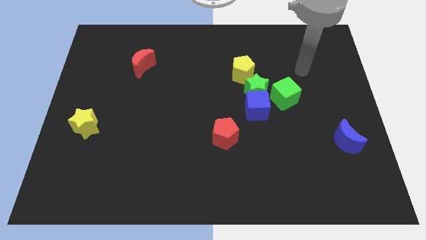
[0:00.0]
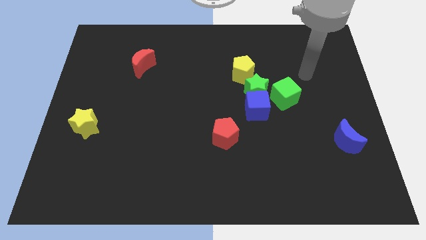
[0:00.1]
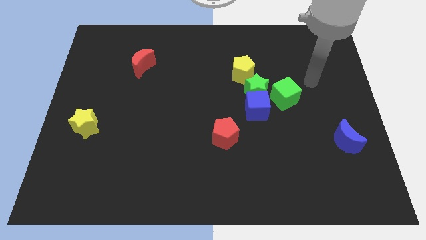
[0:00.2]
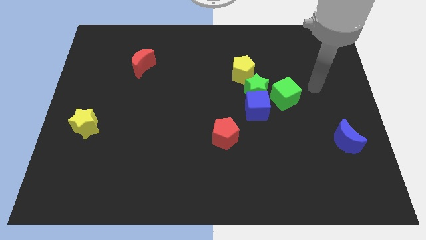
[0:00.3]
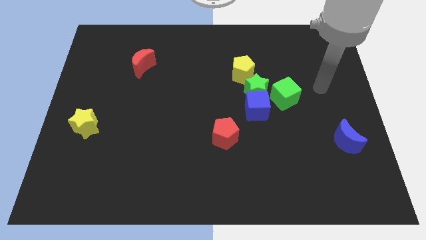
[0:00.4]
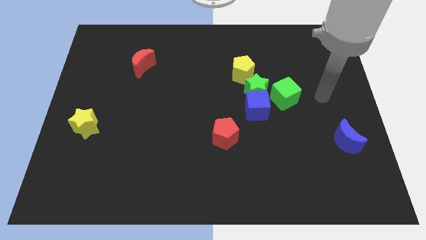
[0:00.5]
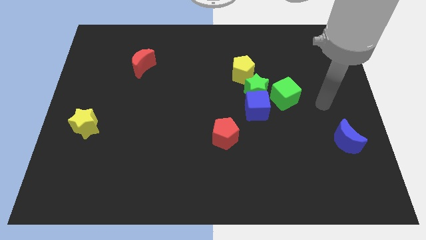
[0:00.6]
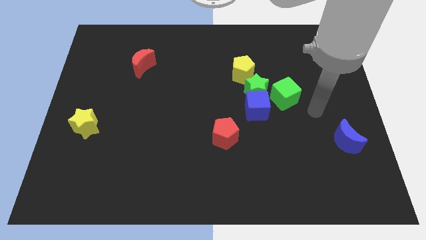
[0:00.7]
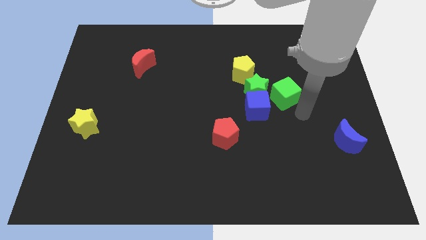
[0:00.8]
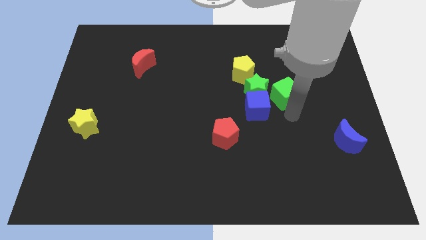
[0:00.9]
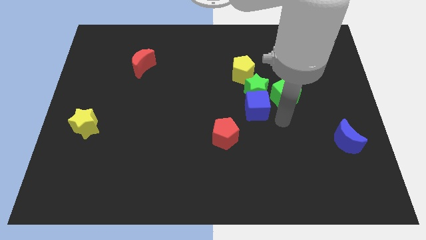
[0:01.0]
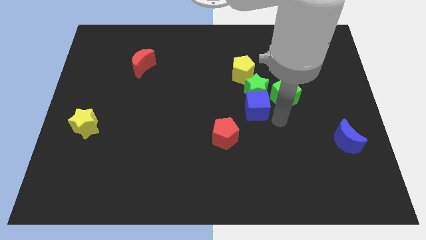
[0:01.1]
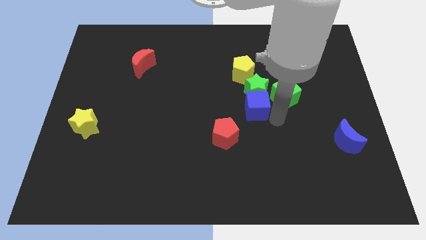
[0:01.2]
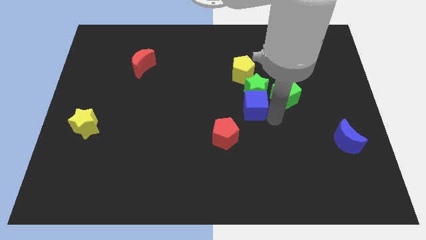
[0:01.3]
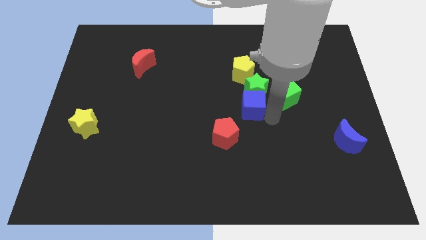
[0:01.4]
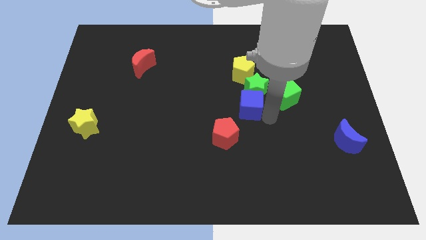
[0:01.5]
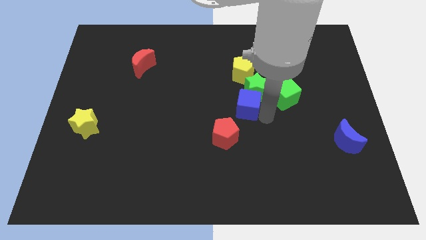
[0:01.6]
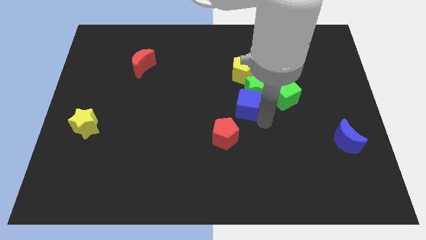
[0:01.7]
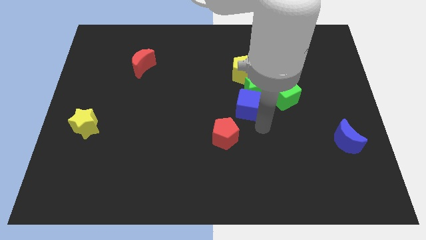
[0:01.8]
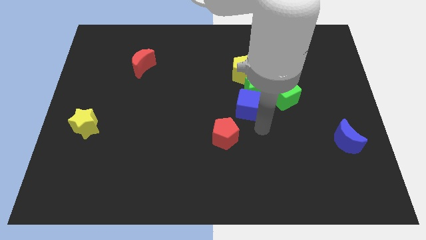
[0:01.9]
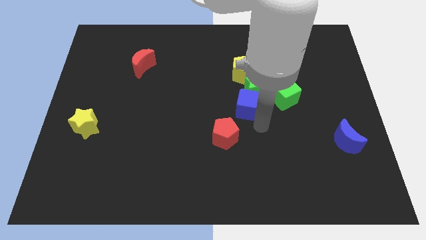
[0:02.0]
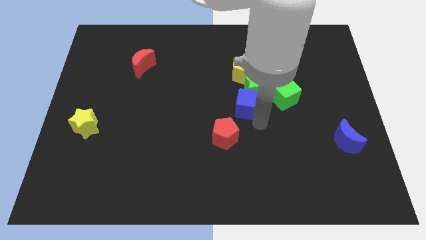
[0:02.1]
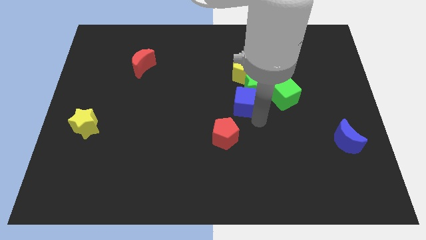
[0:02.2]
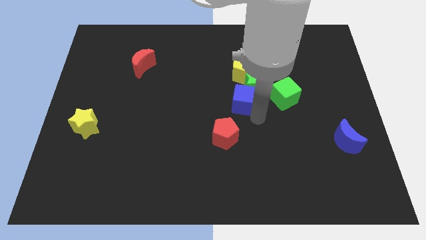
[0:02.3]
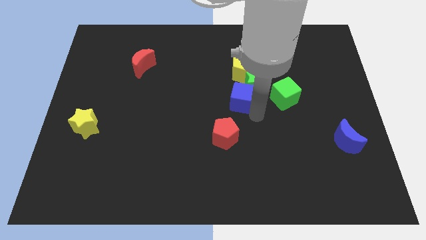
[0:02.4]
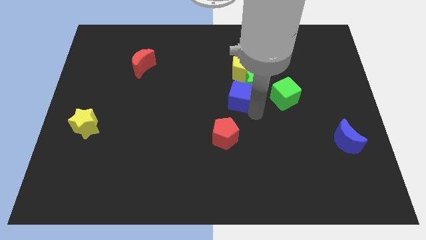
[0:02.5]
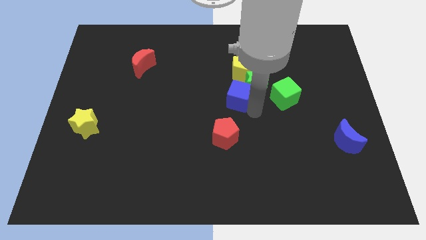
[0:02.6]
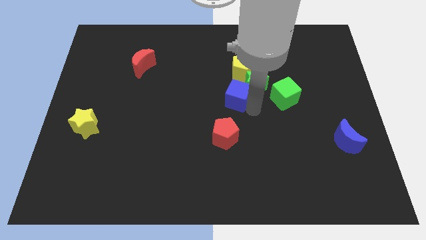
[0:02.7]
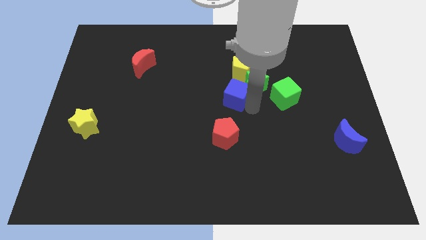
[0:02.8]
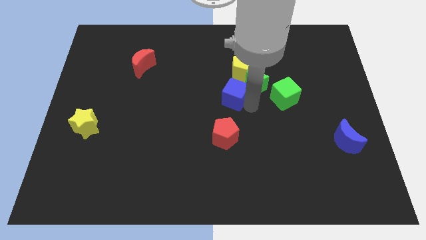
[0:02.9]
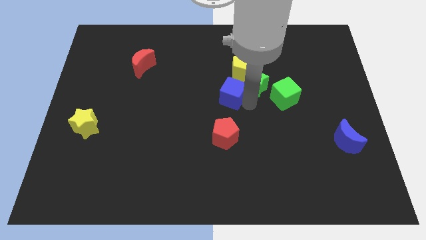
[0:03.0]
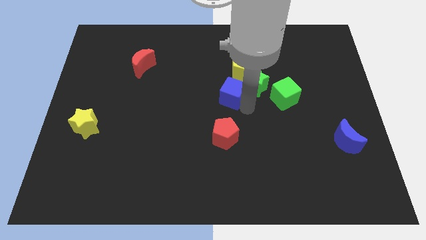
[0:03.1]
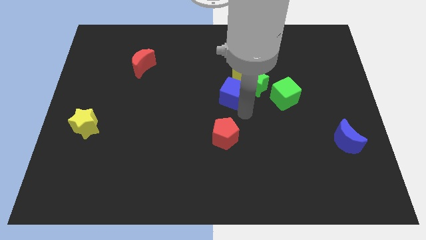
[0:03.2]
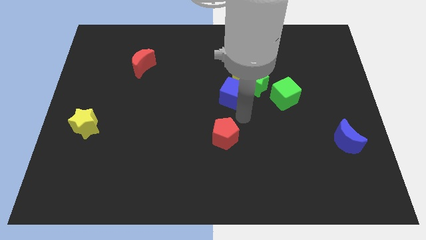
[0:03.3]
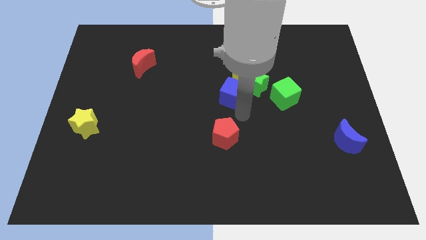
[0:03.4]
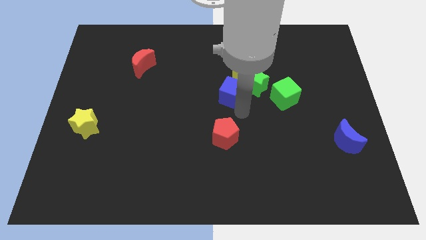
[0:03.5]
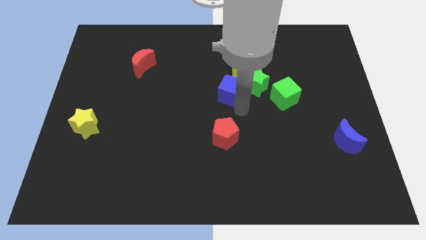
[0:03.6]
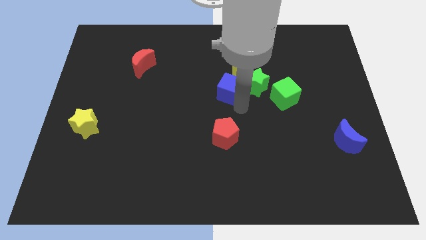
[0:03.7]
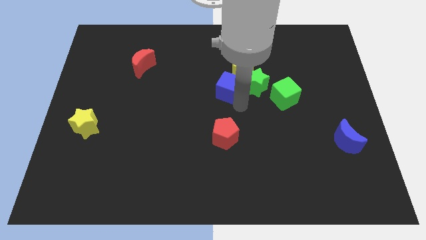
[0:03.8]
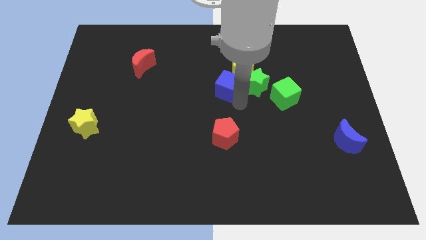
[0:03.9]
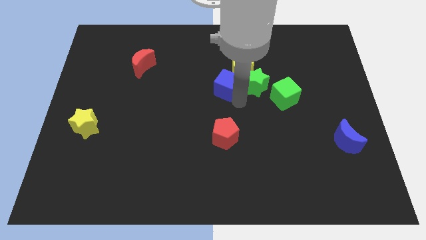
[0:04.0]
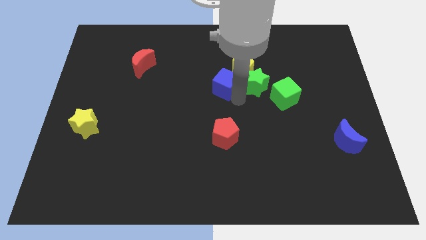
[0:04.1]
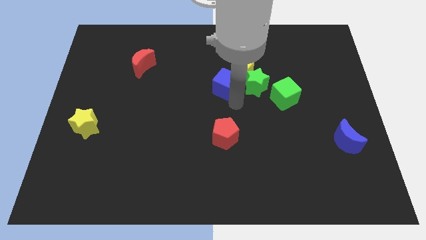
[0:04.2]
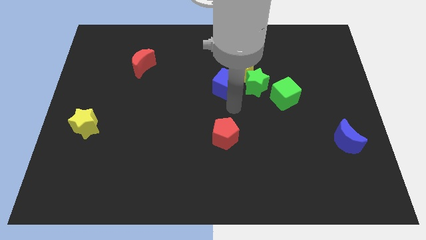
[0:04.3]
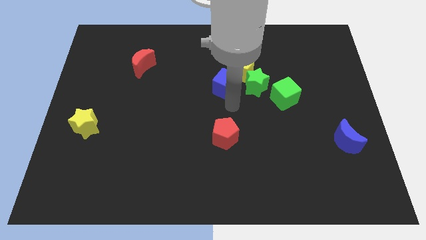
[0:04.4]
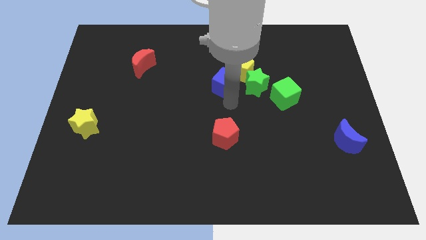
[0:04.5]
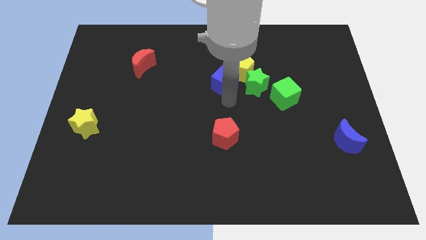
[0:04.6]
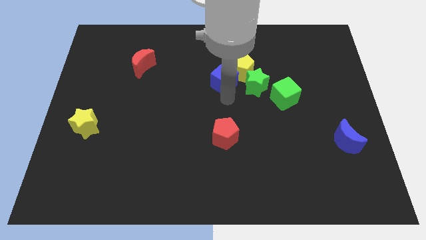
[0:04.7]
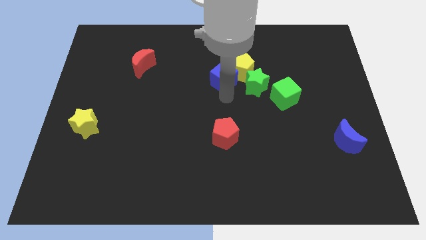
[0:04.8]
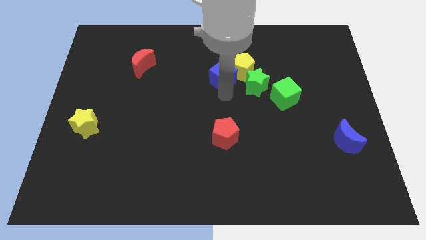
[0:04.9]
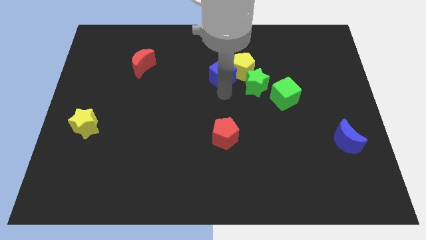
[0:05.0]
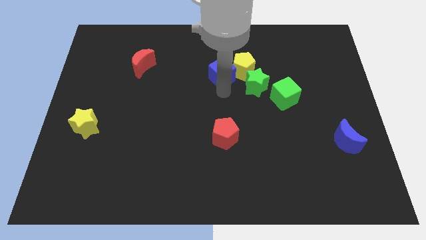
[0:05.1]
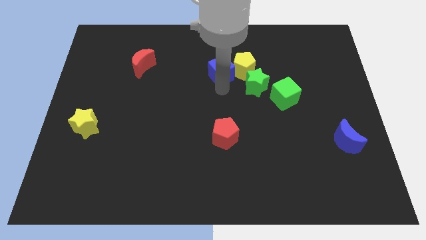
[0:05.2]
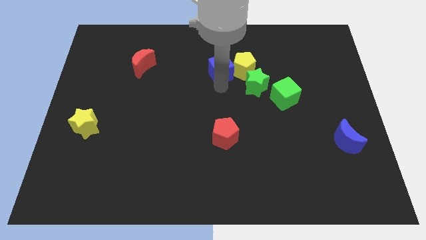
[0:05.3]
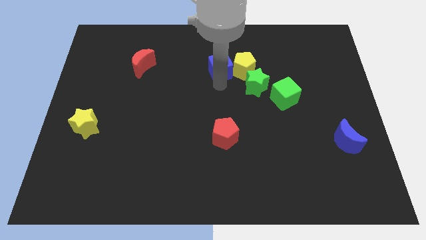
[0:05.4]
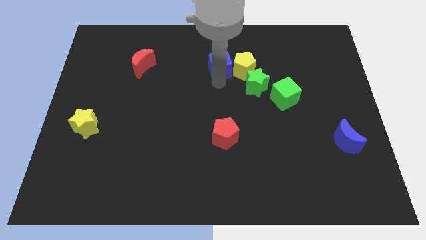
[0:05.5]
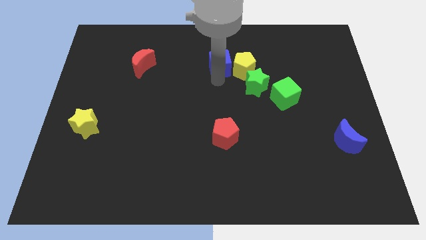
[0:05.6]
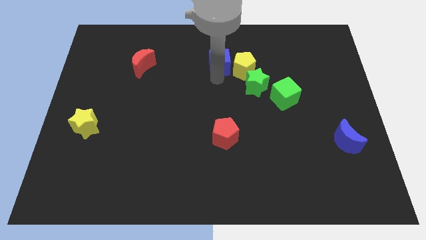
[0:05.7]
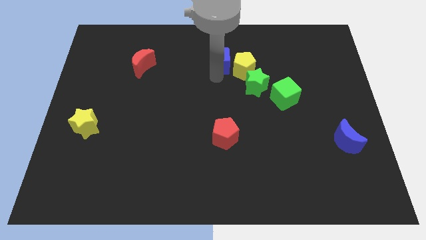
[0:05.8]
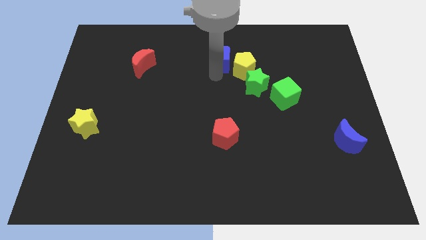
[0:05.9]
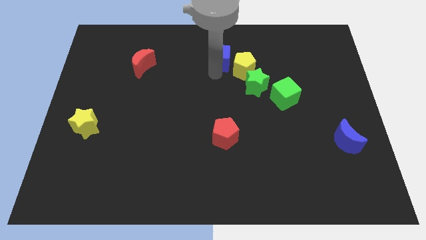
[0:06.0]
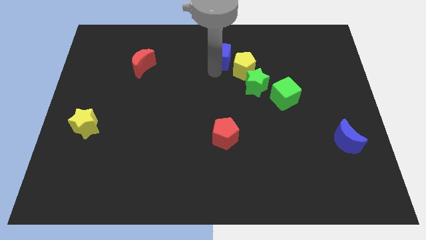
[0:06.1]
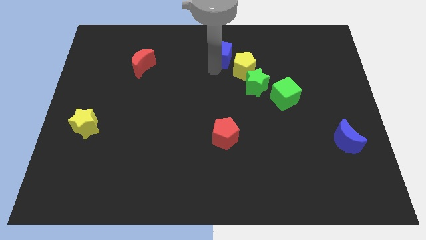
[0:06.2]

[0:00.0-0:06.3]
put the blue cube to the top side
